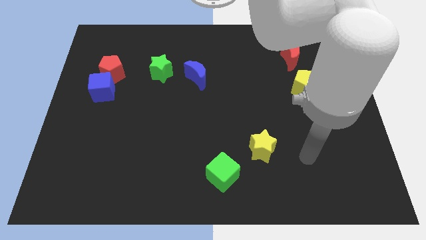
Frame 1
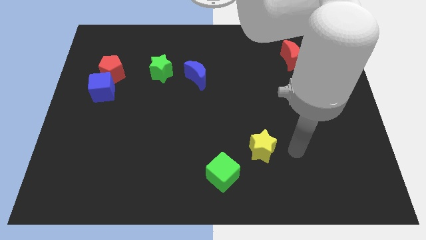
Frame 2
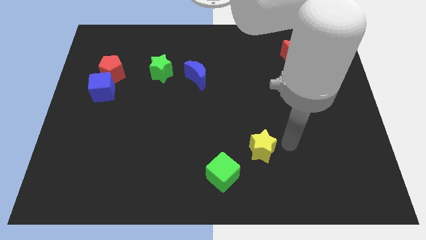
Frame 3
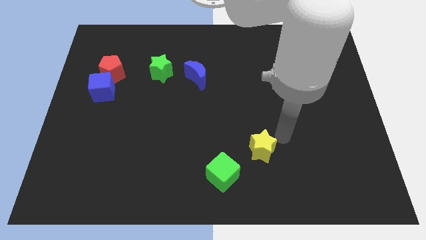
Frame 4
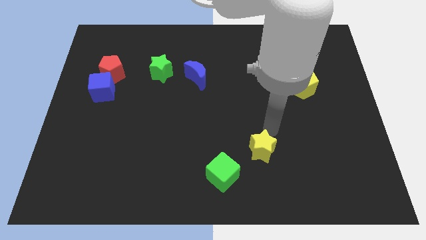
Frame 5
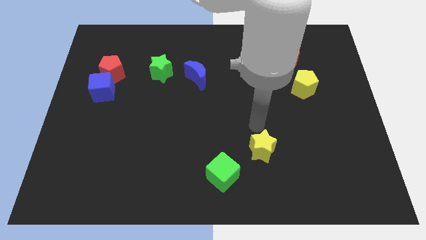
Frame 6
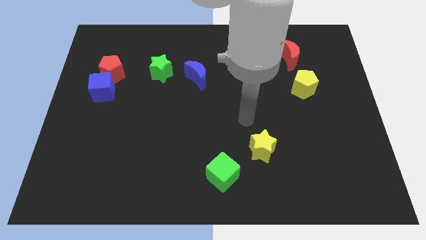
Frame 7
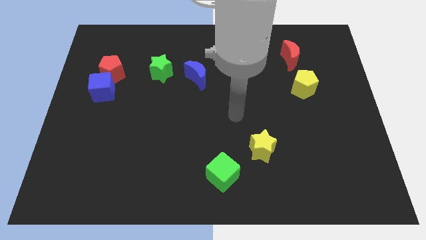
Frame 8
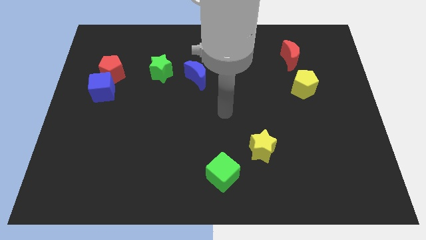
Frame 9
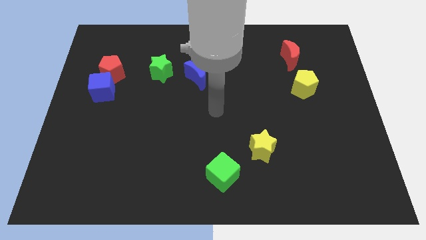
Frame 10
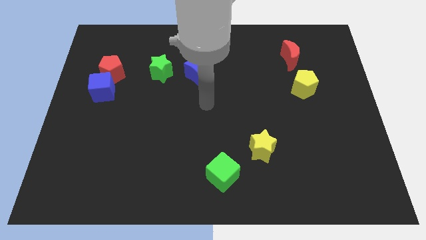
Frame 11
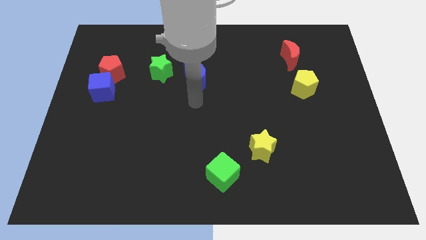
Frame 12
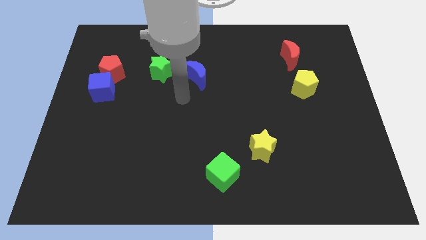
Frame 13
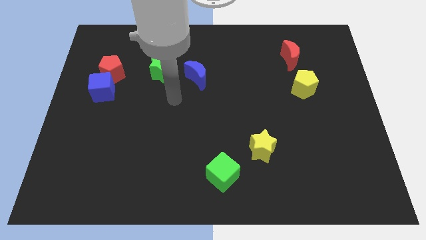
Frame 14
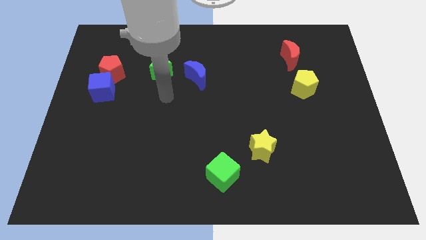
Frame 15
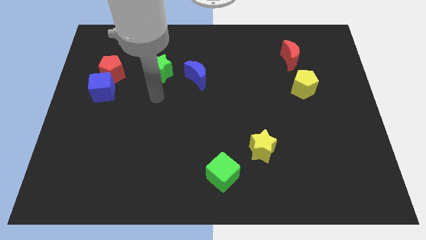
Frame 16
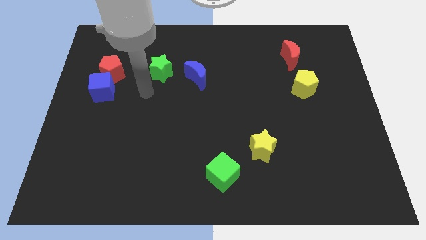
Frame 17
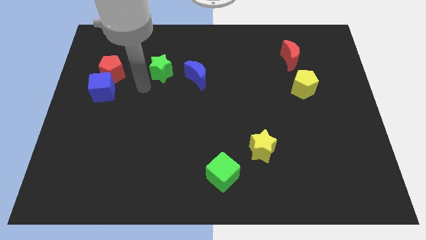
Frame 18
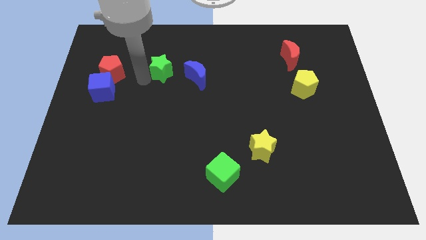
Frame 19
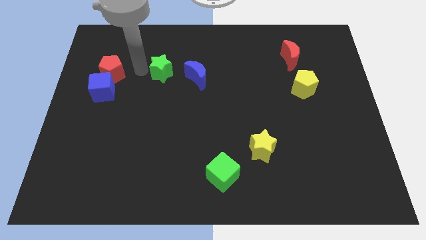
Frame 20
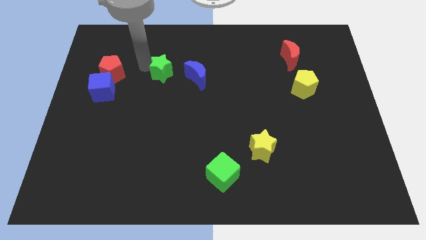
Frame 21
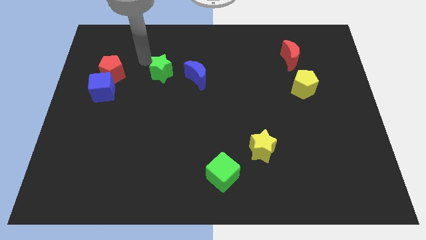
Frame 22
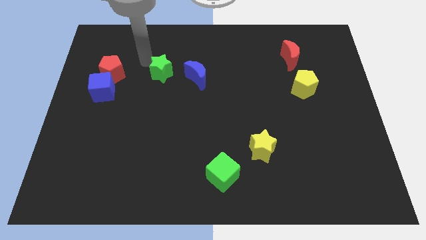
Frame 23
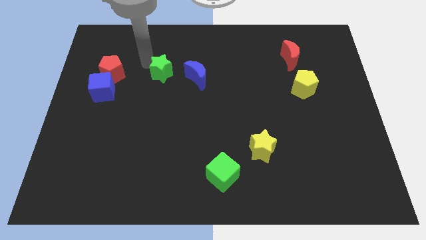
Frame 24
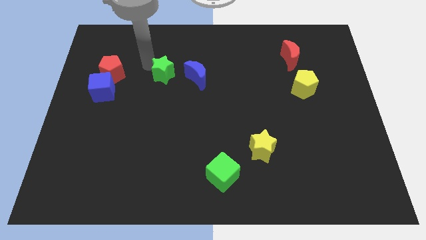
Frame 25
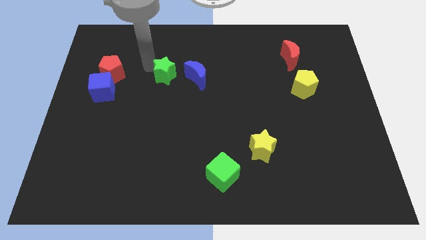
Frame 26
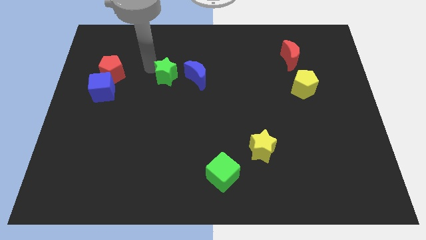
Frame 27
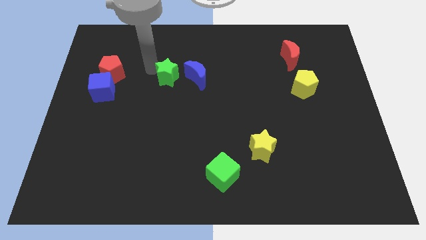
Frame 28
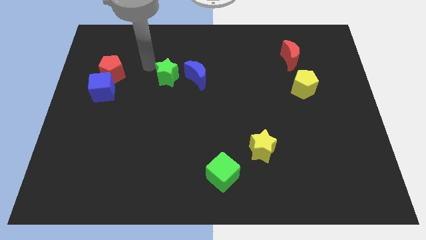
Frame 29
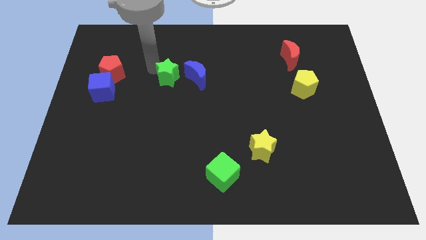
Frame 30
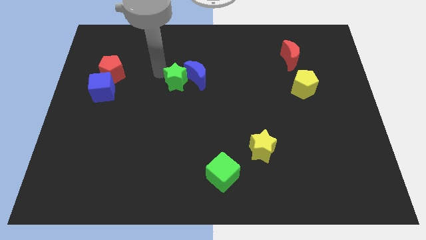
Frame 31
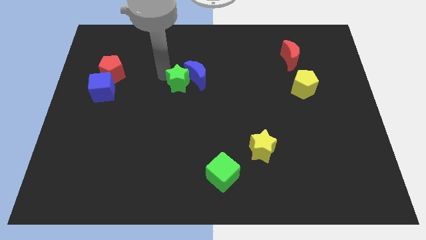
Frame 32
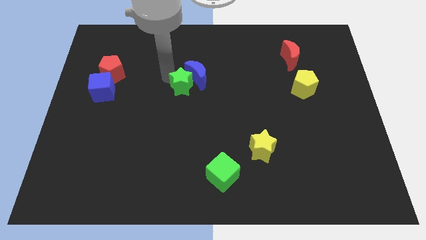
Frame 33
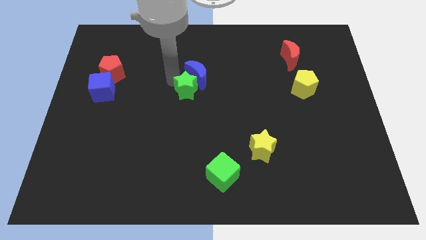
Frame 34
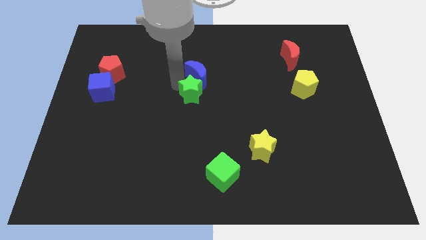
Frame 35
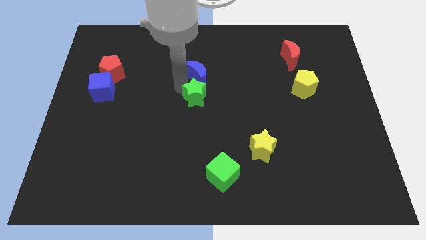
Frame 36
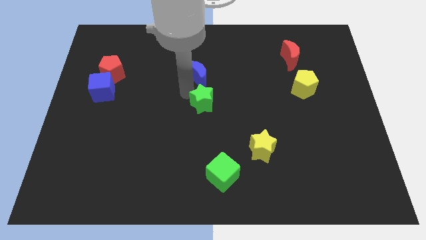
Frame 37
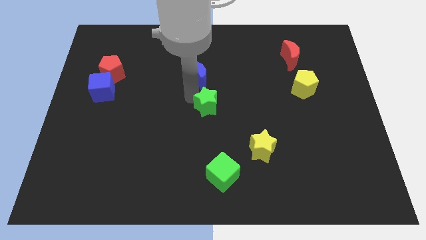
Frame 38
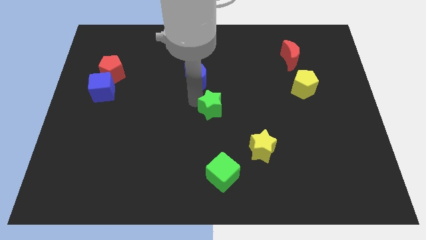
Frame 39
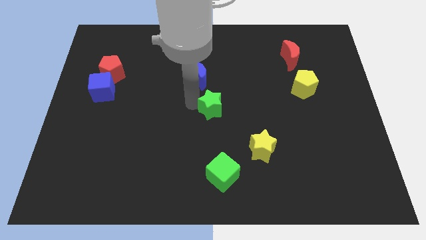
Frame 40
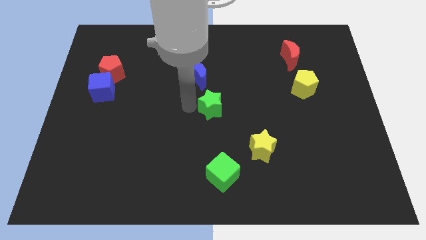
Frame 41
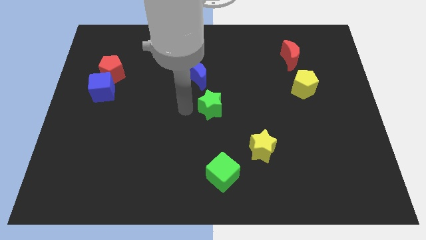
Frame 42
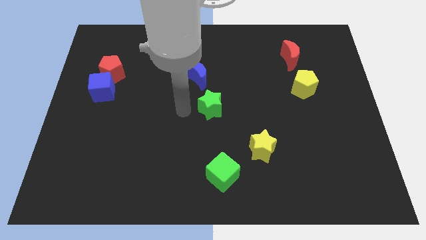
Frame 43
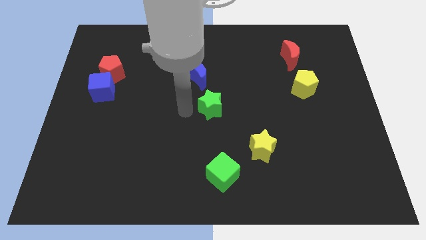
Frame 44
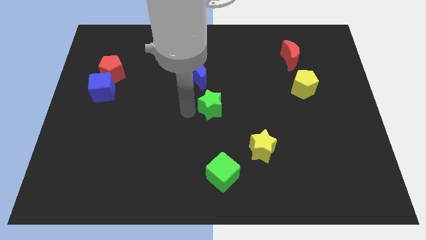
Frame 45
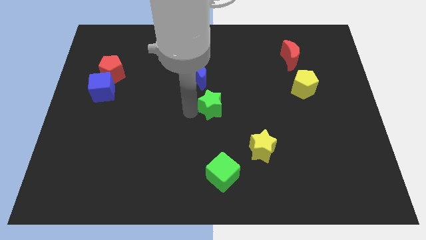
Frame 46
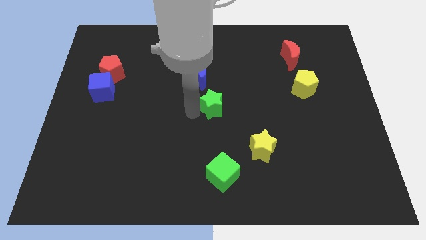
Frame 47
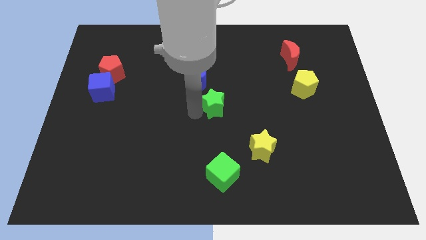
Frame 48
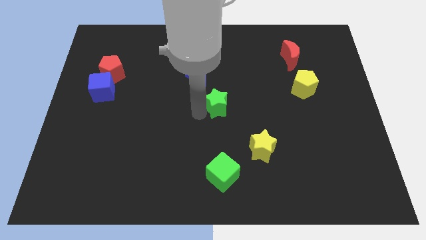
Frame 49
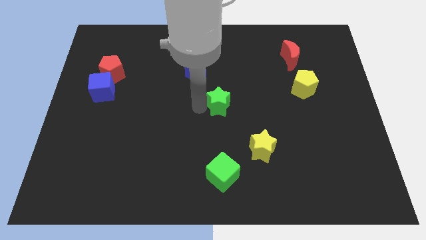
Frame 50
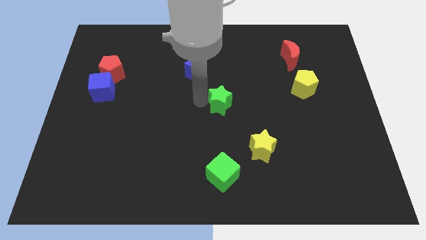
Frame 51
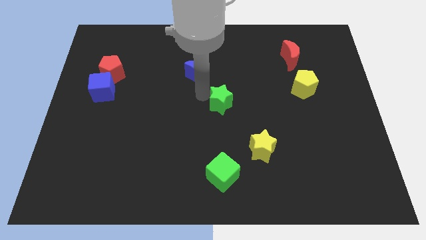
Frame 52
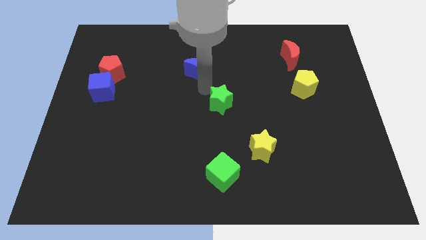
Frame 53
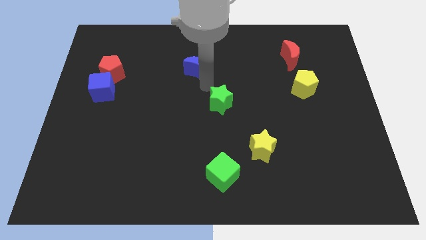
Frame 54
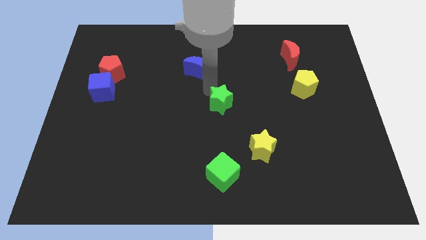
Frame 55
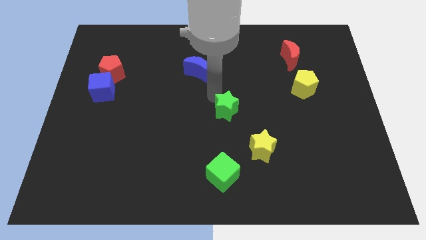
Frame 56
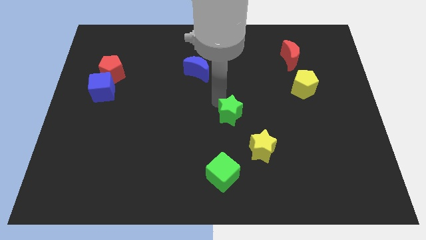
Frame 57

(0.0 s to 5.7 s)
slide the green star diagonally up and to the left of the yellow star

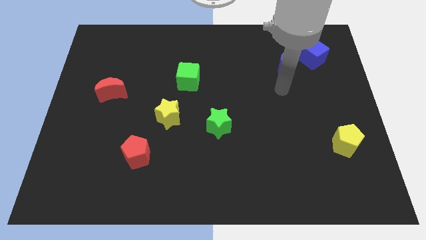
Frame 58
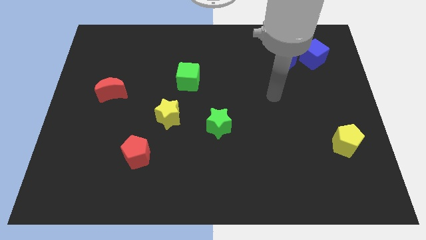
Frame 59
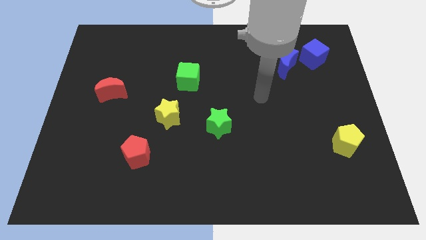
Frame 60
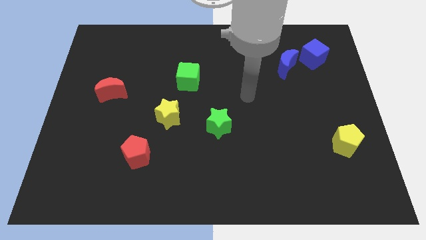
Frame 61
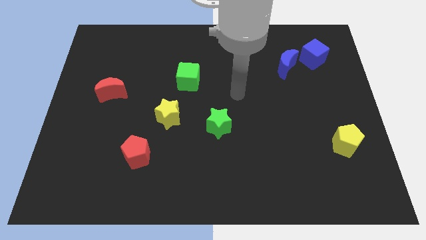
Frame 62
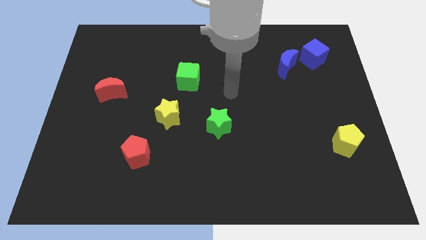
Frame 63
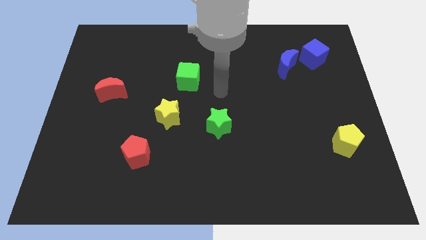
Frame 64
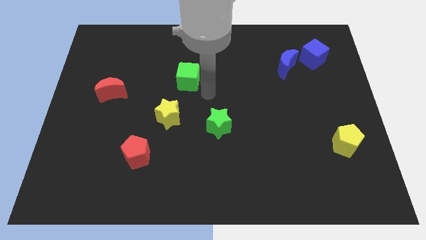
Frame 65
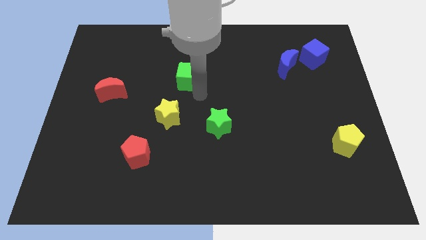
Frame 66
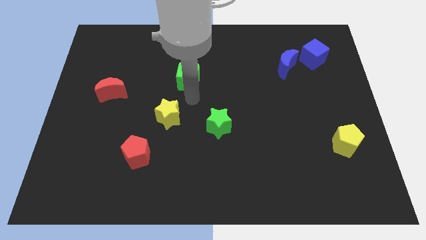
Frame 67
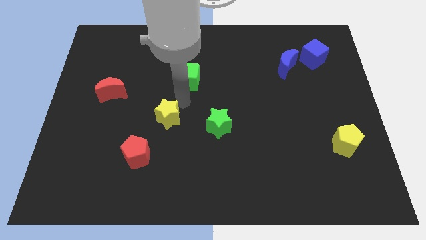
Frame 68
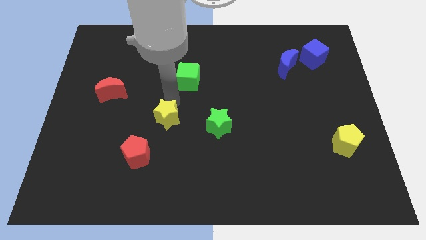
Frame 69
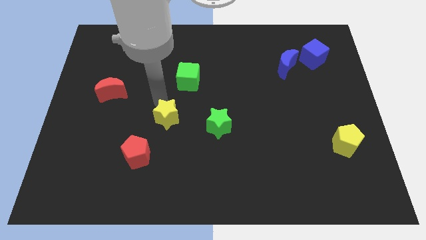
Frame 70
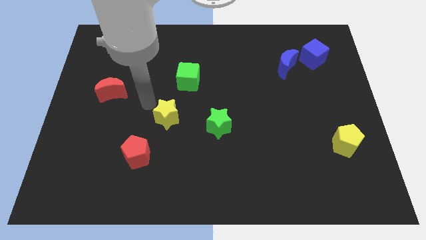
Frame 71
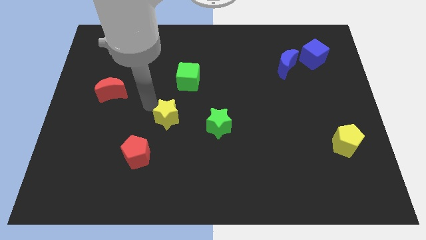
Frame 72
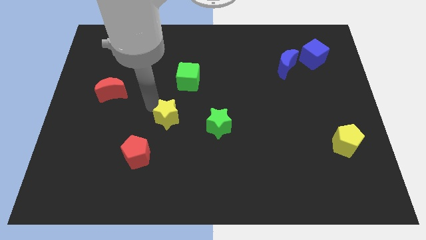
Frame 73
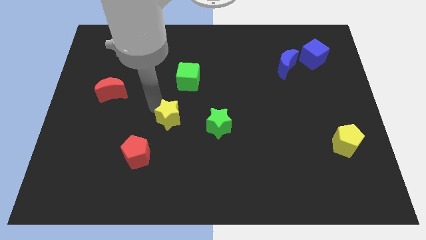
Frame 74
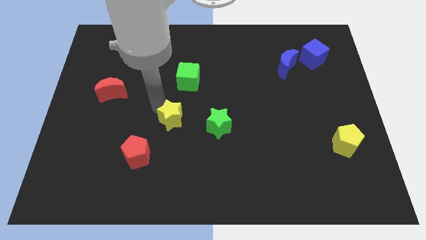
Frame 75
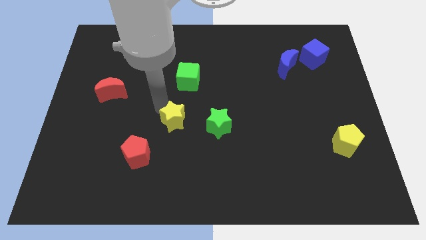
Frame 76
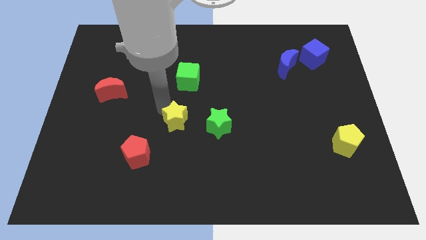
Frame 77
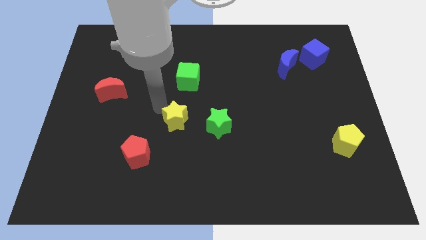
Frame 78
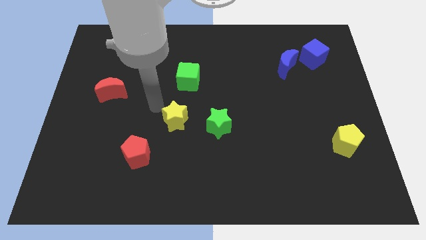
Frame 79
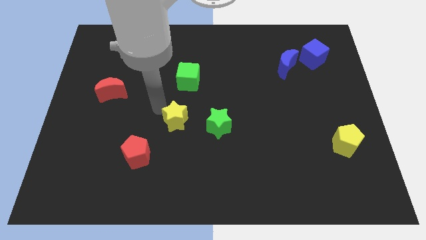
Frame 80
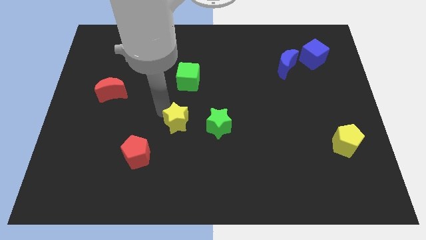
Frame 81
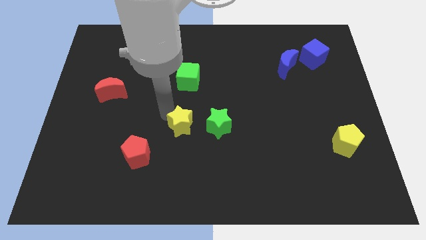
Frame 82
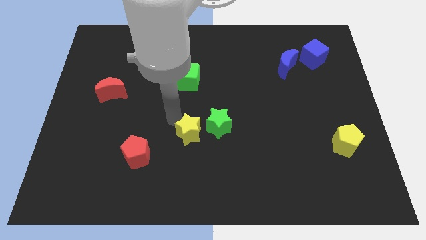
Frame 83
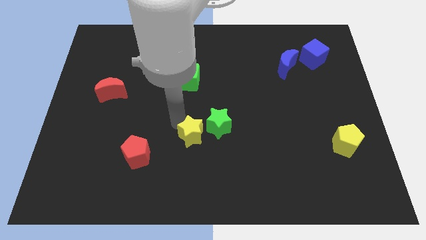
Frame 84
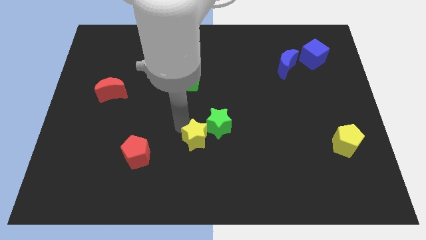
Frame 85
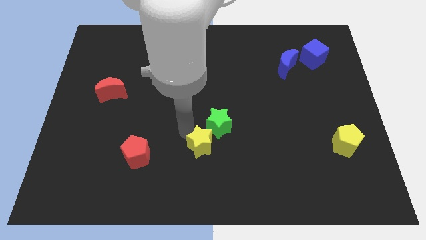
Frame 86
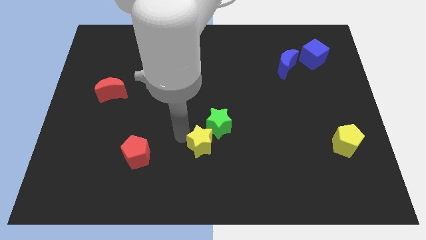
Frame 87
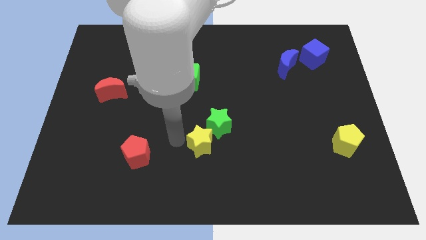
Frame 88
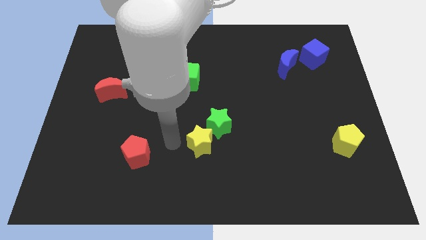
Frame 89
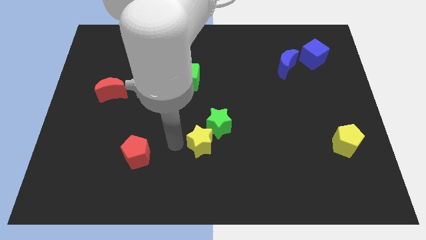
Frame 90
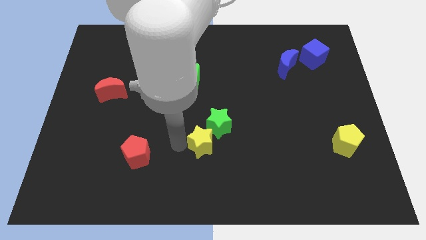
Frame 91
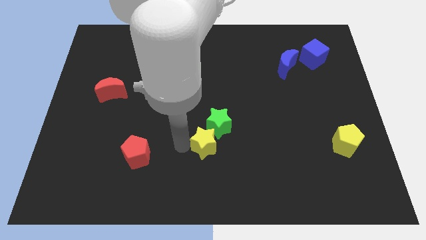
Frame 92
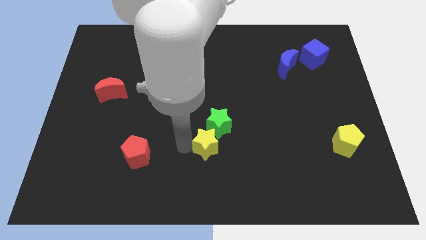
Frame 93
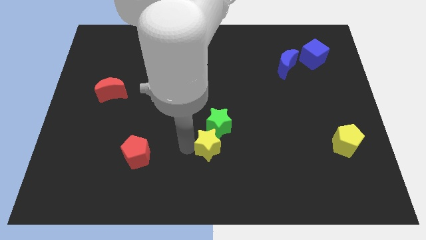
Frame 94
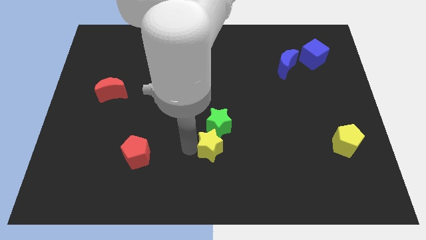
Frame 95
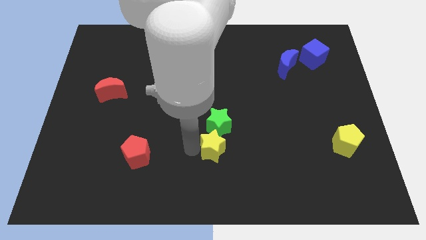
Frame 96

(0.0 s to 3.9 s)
put the yellow star to the bottom right of the green star
